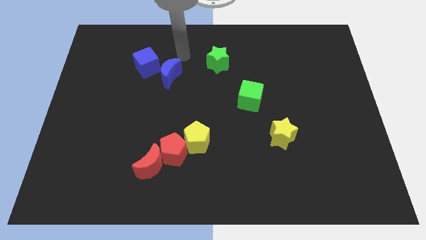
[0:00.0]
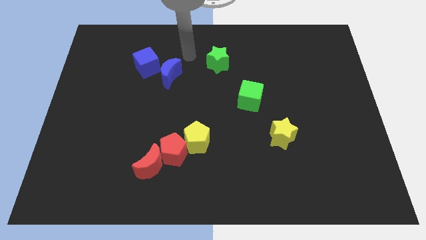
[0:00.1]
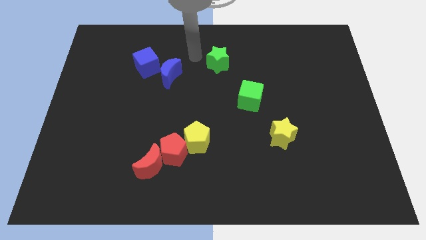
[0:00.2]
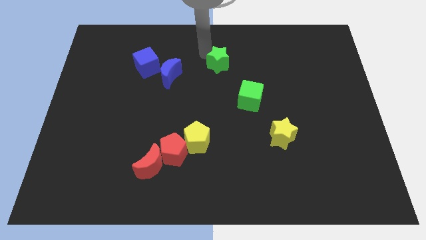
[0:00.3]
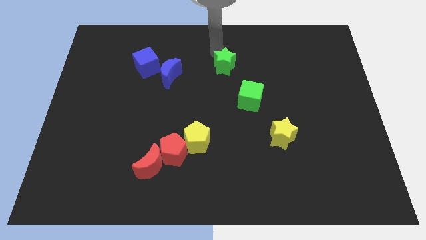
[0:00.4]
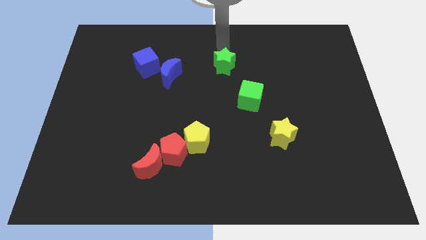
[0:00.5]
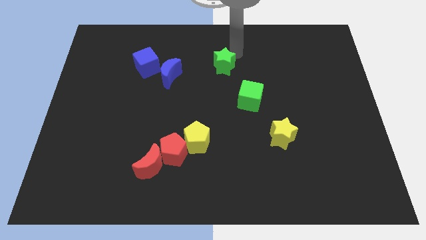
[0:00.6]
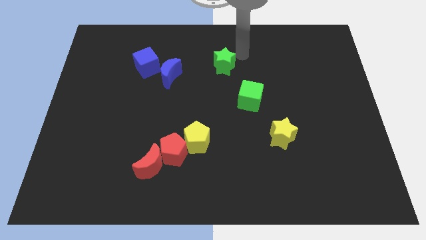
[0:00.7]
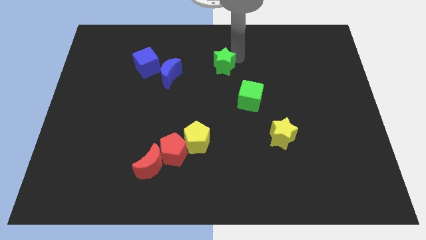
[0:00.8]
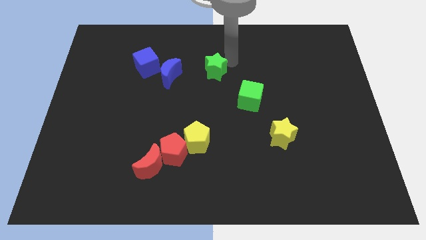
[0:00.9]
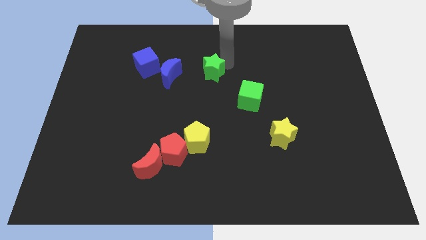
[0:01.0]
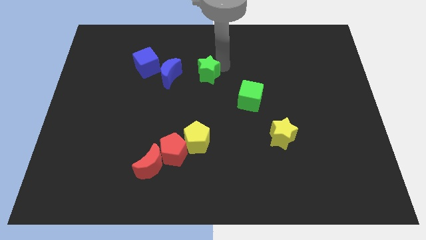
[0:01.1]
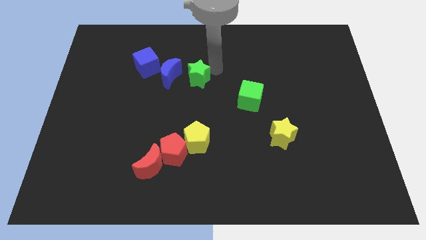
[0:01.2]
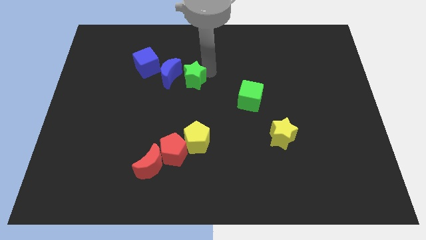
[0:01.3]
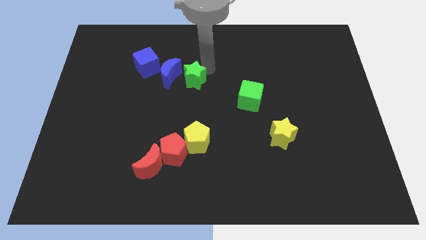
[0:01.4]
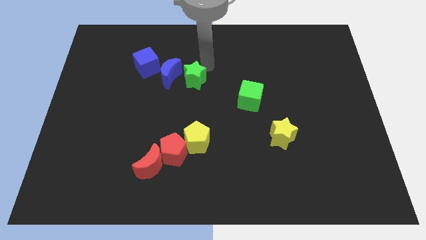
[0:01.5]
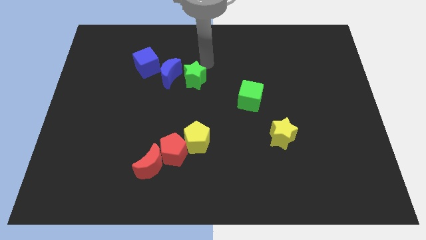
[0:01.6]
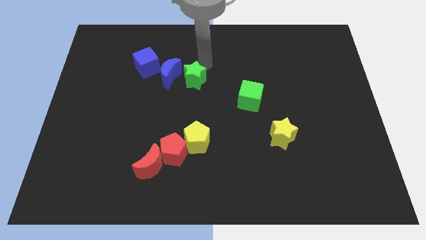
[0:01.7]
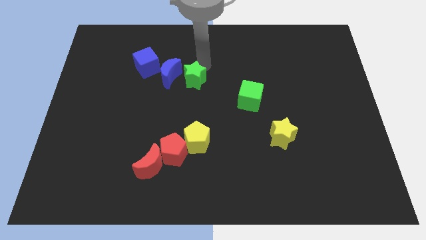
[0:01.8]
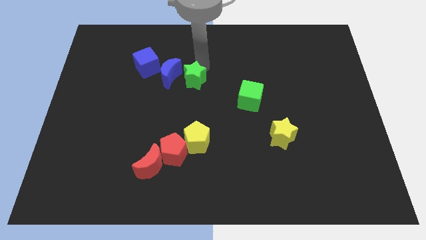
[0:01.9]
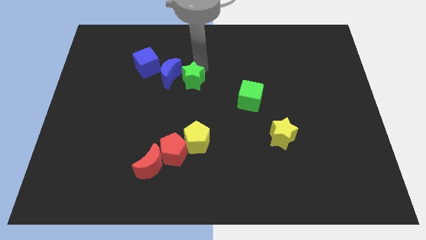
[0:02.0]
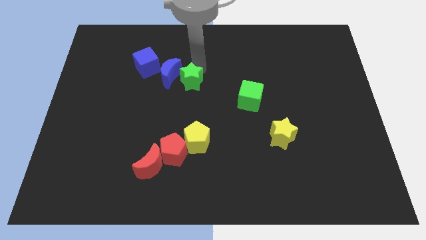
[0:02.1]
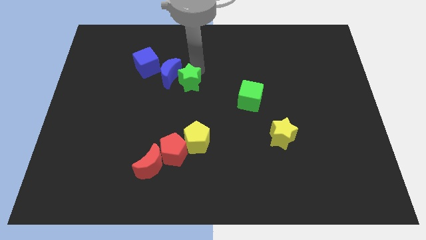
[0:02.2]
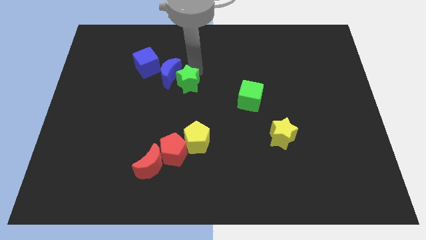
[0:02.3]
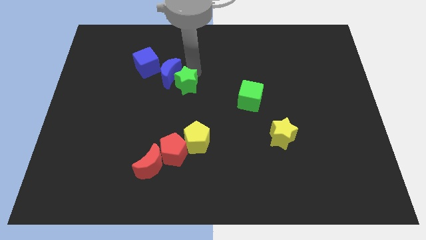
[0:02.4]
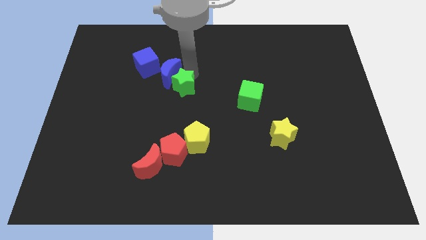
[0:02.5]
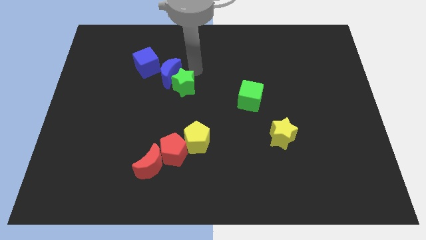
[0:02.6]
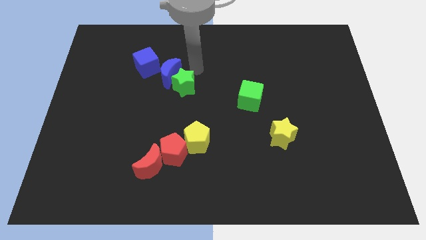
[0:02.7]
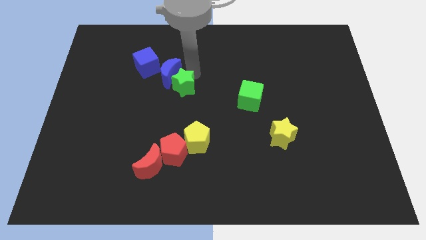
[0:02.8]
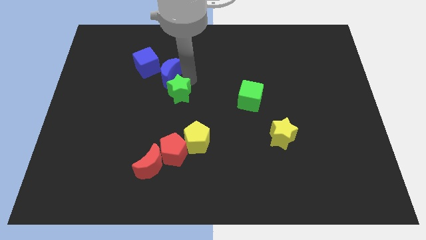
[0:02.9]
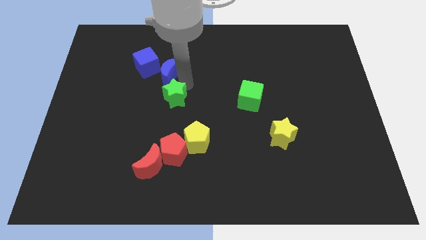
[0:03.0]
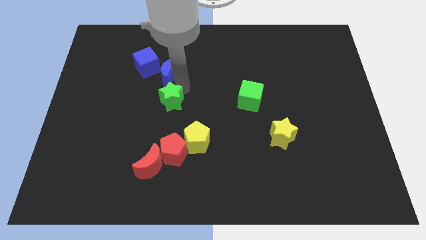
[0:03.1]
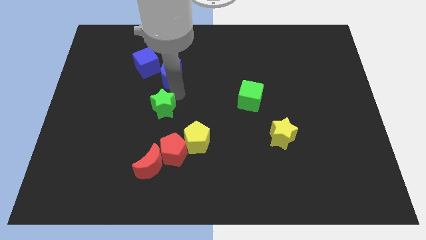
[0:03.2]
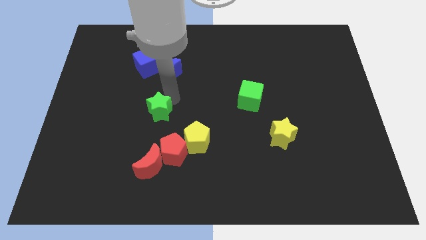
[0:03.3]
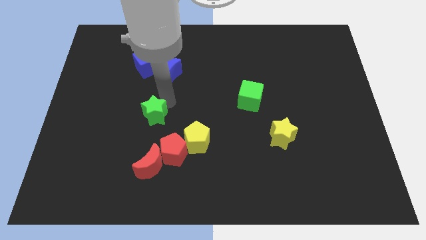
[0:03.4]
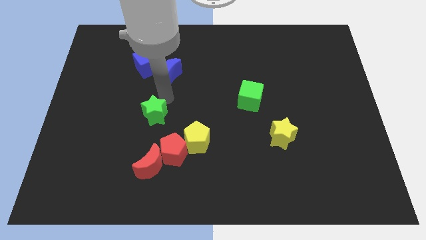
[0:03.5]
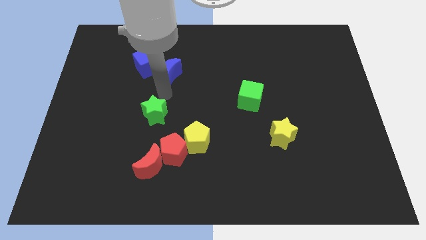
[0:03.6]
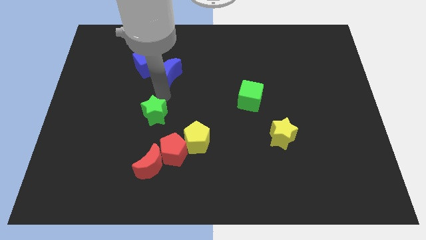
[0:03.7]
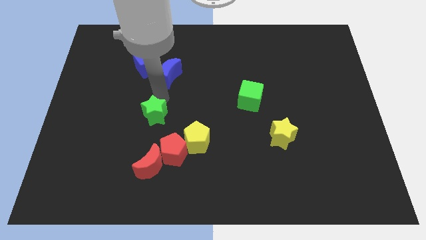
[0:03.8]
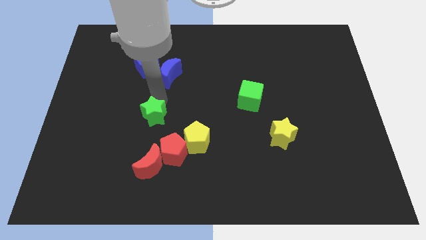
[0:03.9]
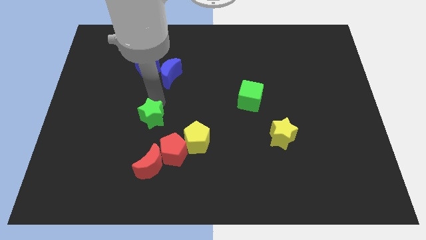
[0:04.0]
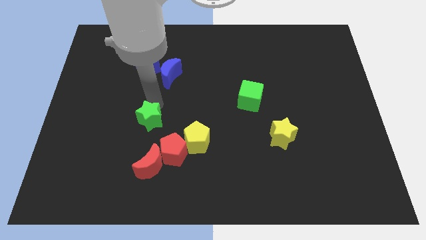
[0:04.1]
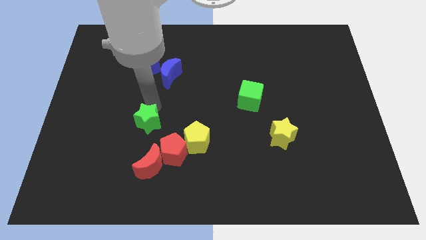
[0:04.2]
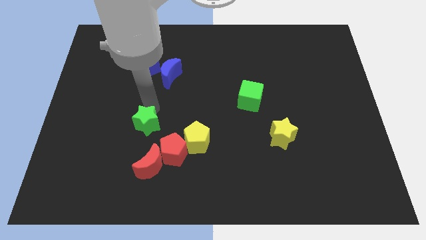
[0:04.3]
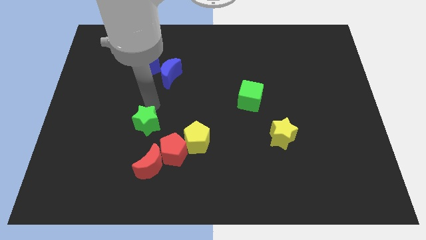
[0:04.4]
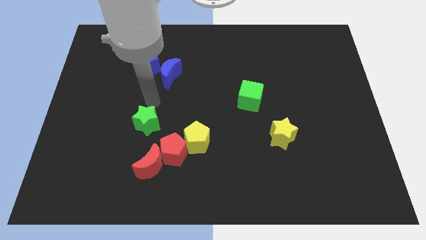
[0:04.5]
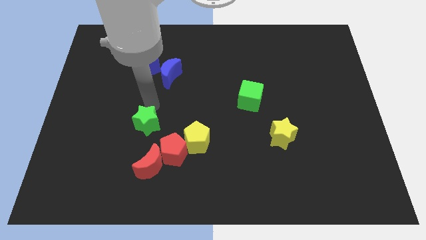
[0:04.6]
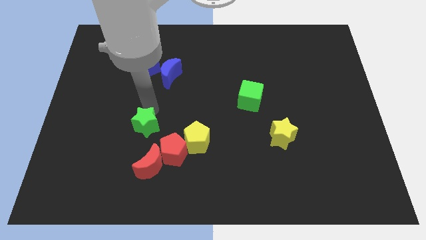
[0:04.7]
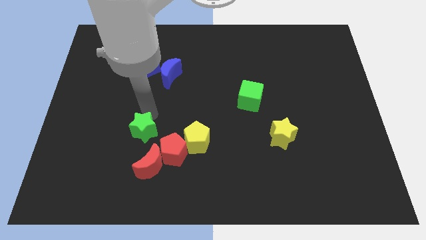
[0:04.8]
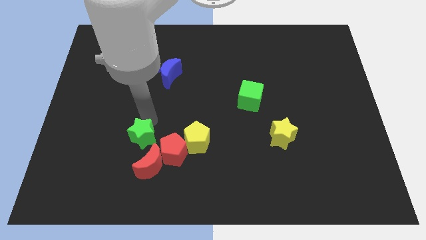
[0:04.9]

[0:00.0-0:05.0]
move the green star left of the red pentagon

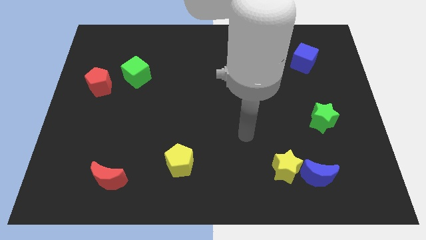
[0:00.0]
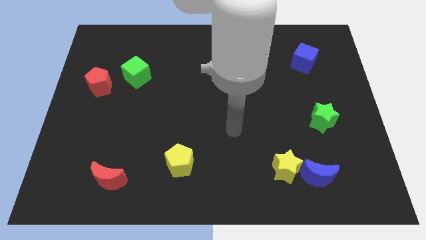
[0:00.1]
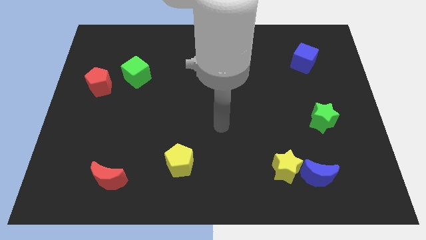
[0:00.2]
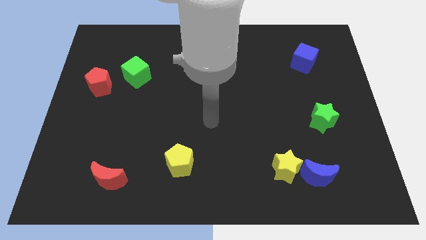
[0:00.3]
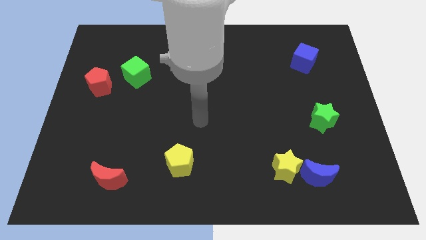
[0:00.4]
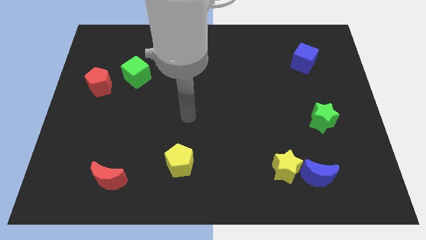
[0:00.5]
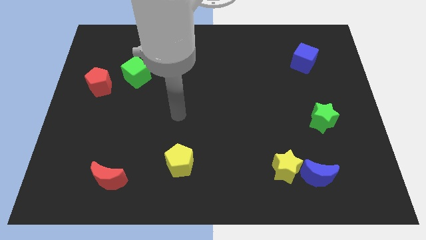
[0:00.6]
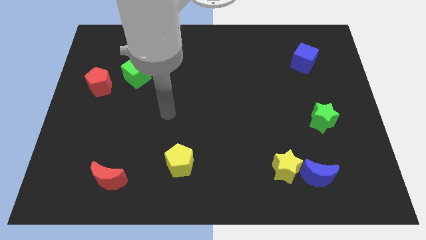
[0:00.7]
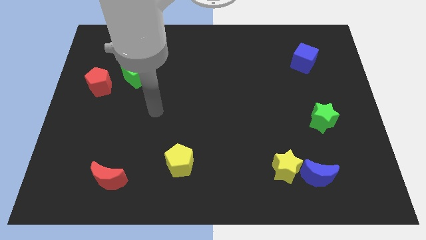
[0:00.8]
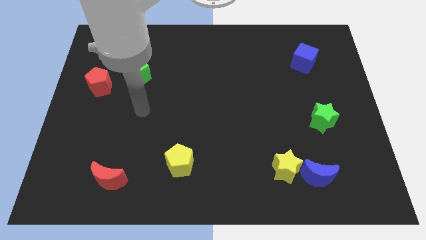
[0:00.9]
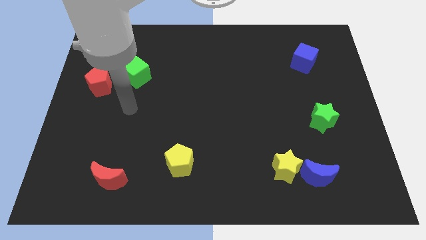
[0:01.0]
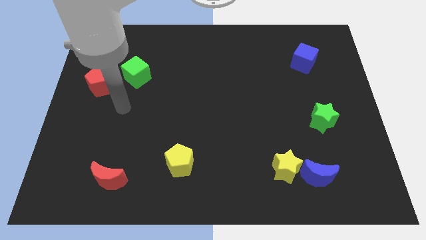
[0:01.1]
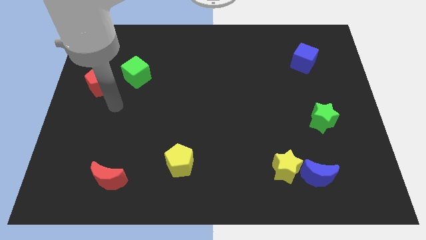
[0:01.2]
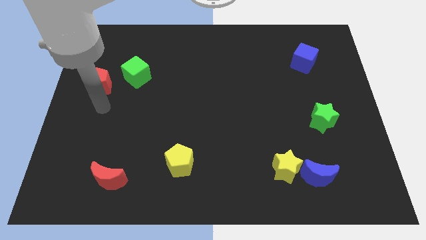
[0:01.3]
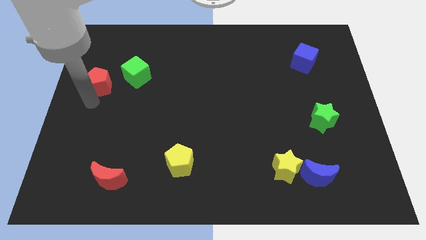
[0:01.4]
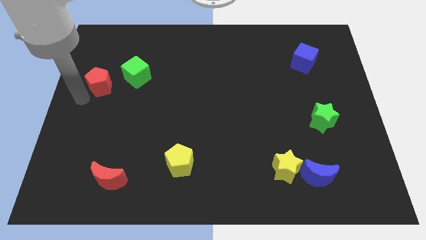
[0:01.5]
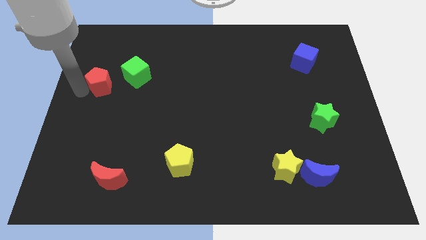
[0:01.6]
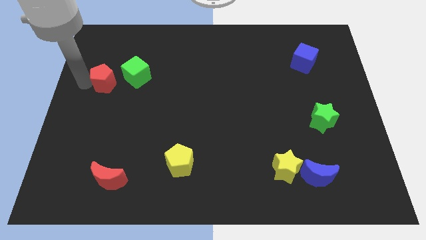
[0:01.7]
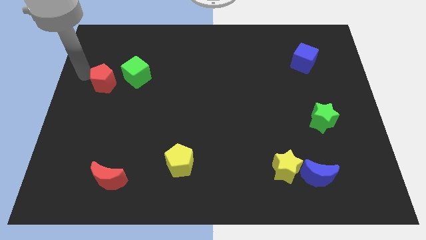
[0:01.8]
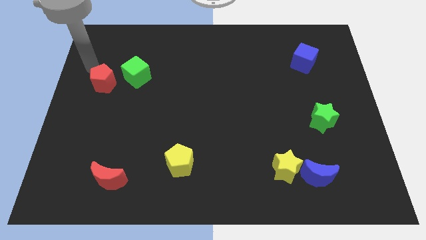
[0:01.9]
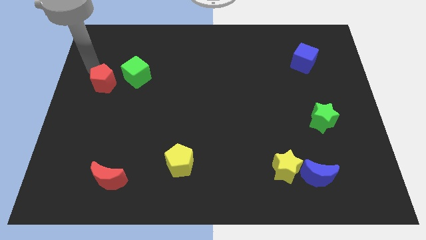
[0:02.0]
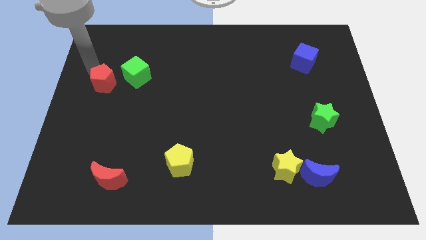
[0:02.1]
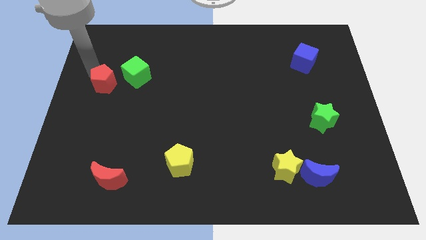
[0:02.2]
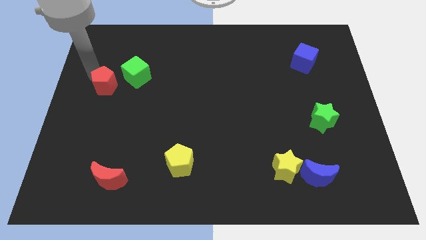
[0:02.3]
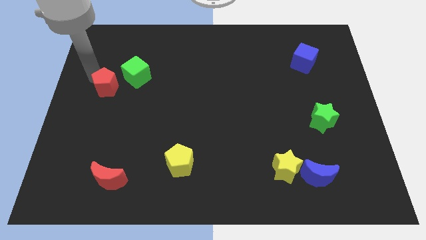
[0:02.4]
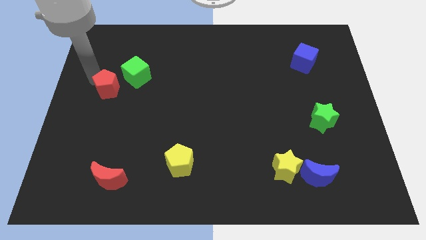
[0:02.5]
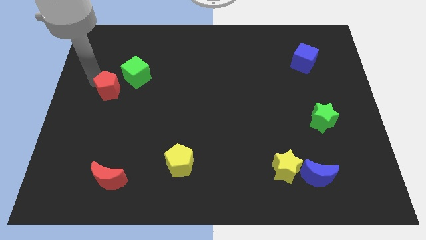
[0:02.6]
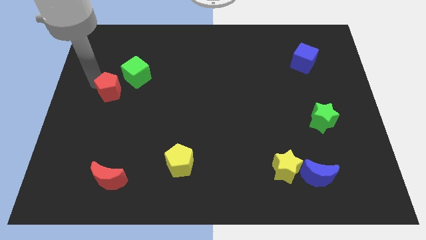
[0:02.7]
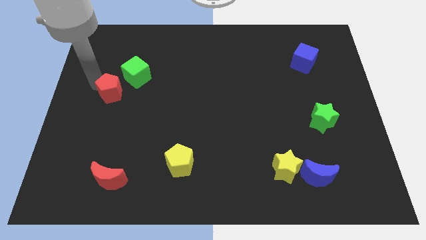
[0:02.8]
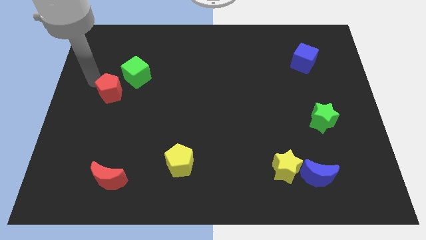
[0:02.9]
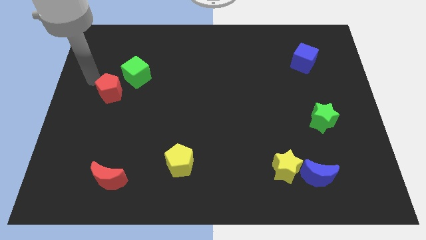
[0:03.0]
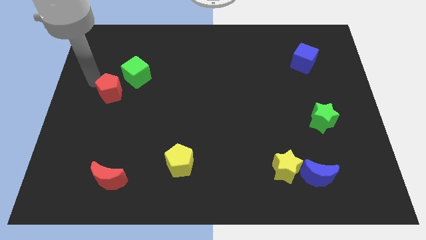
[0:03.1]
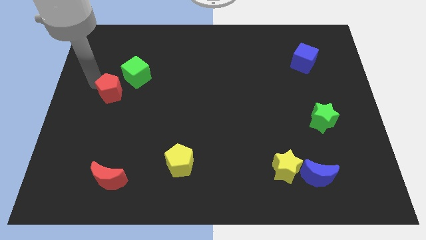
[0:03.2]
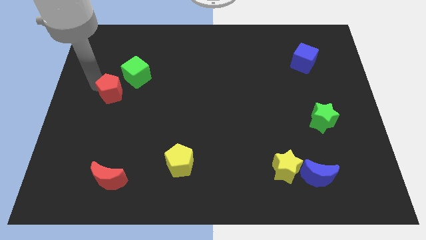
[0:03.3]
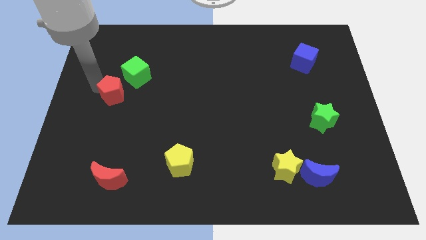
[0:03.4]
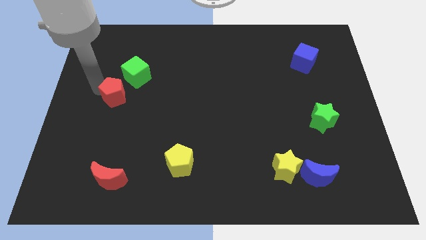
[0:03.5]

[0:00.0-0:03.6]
put the red pentagon to the bottom of the green cube
